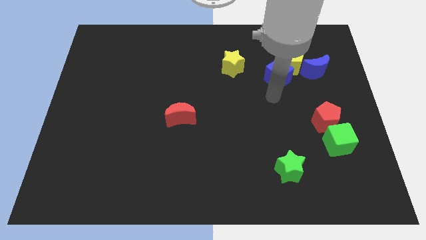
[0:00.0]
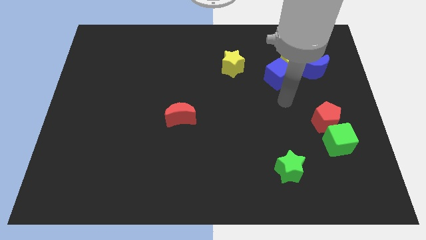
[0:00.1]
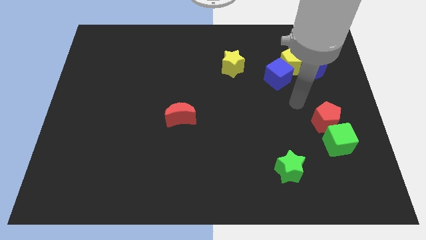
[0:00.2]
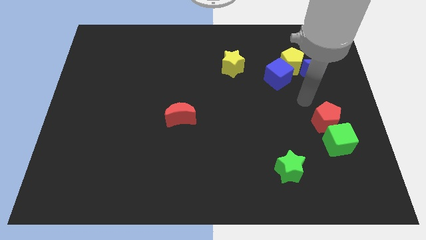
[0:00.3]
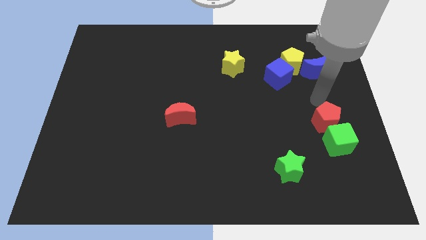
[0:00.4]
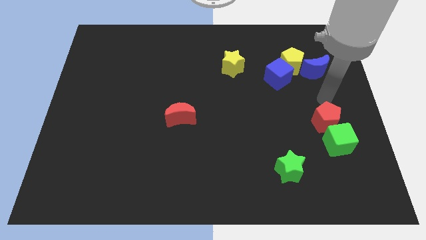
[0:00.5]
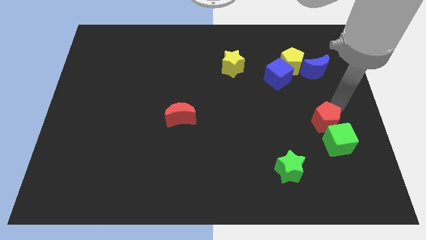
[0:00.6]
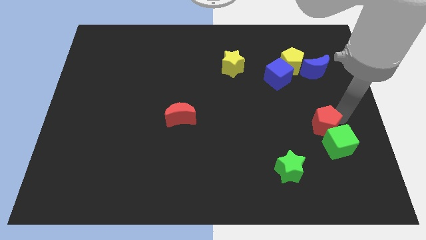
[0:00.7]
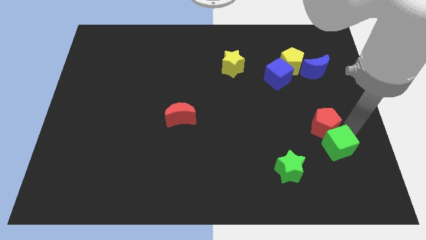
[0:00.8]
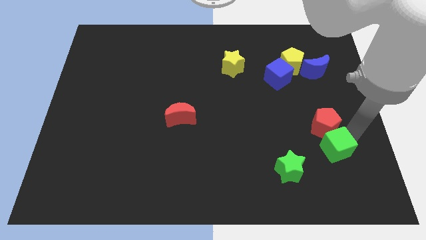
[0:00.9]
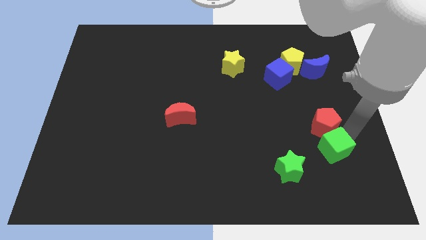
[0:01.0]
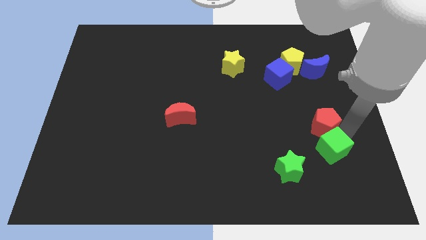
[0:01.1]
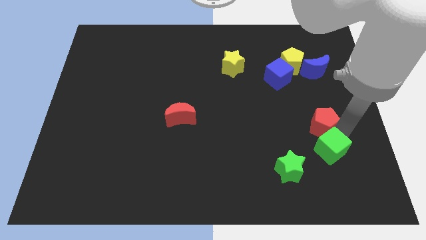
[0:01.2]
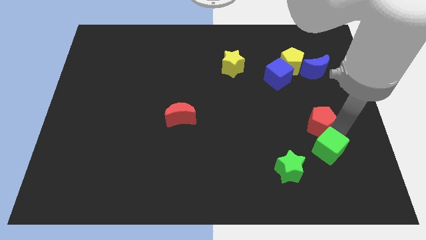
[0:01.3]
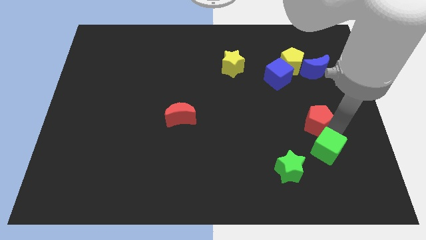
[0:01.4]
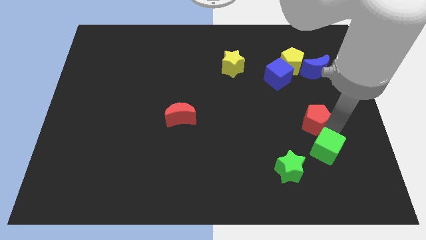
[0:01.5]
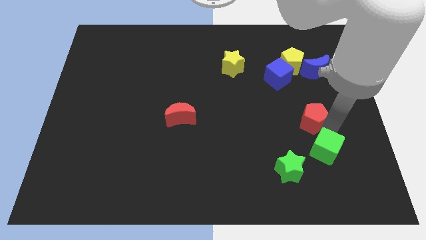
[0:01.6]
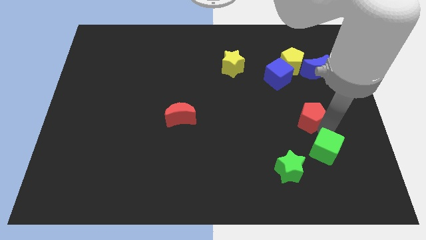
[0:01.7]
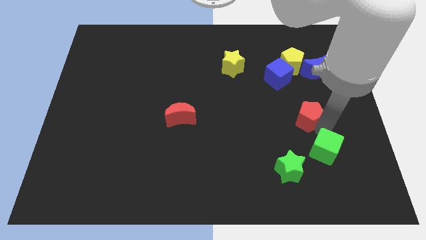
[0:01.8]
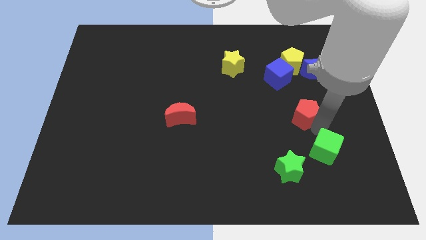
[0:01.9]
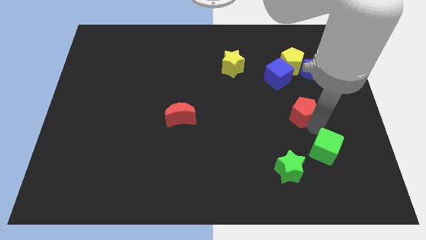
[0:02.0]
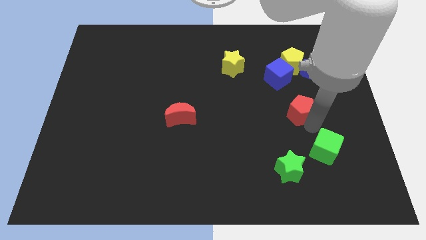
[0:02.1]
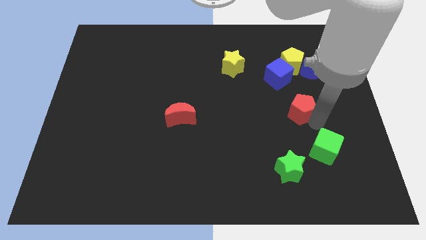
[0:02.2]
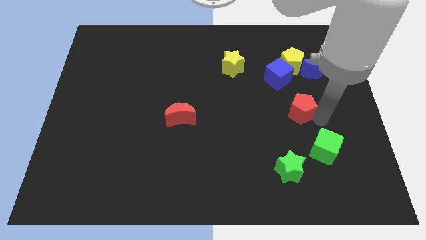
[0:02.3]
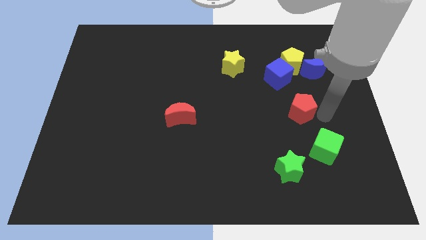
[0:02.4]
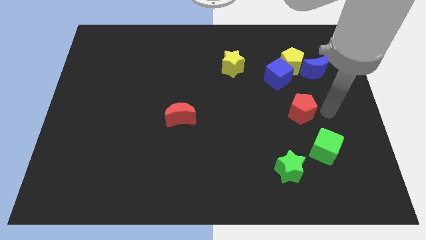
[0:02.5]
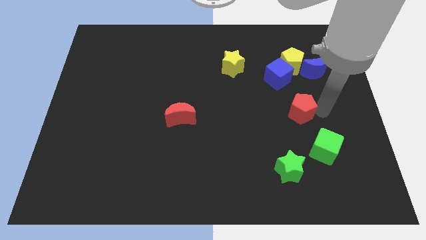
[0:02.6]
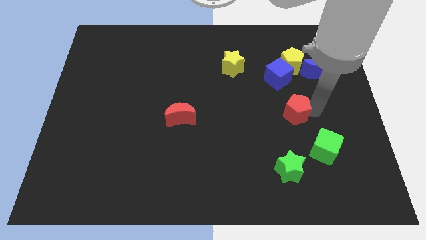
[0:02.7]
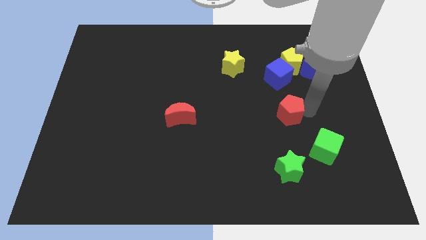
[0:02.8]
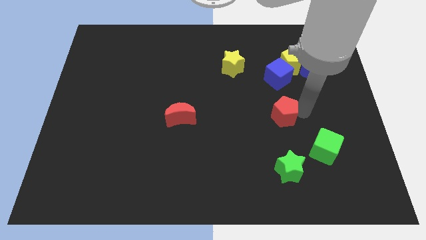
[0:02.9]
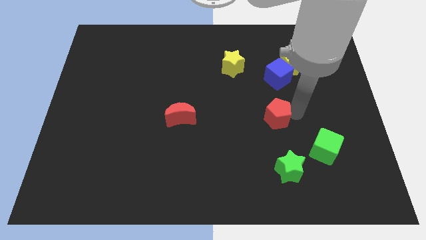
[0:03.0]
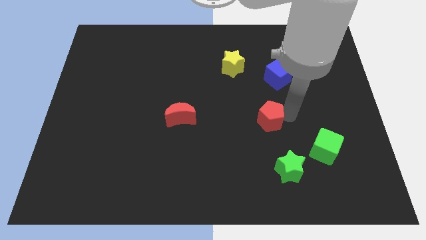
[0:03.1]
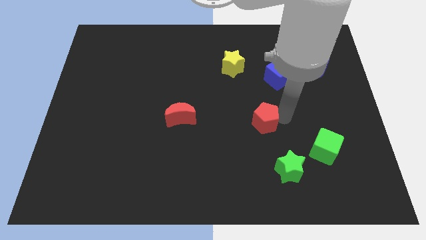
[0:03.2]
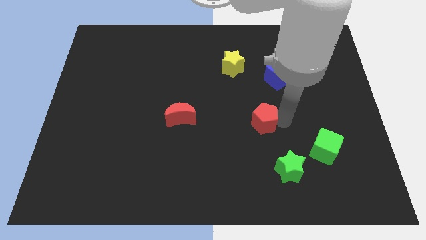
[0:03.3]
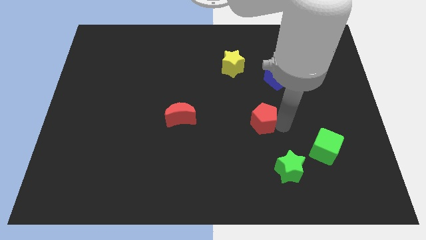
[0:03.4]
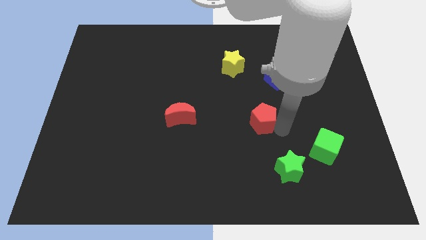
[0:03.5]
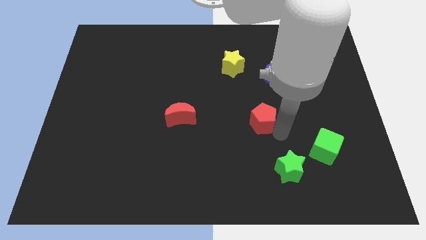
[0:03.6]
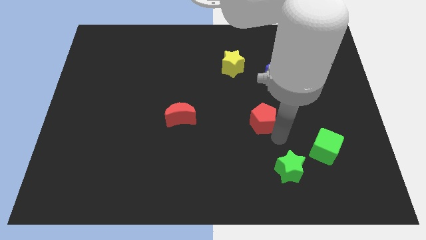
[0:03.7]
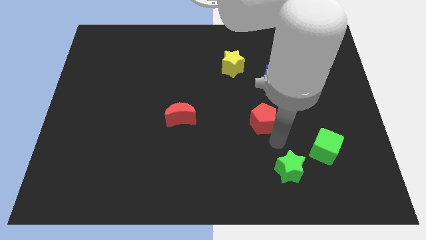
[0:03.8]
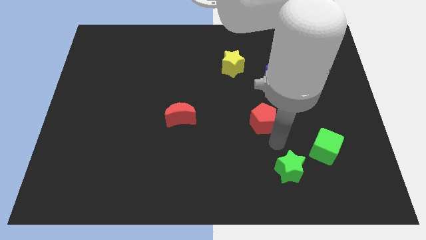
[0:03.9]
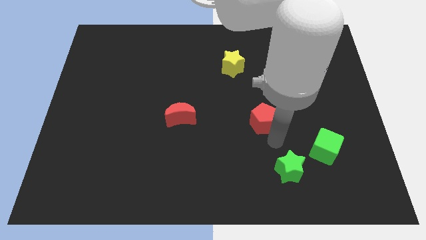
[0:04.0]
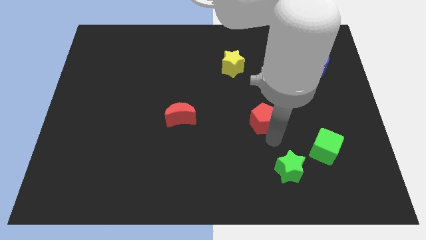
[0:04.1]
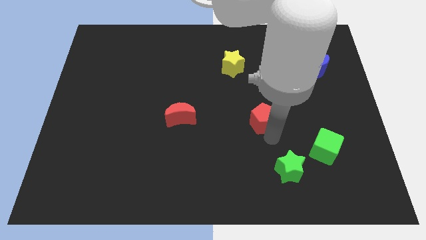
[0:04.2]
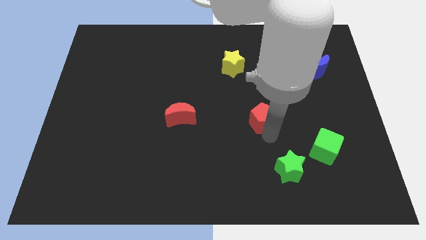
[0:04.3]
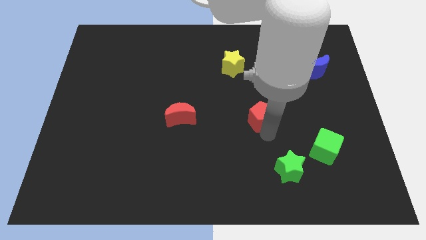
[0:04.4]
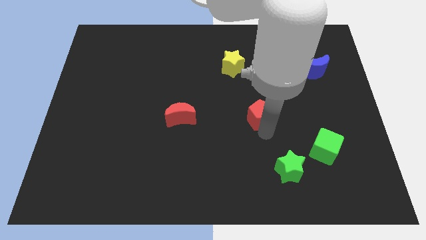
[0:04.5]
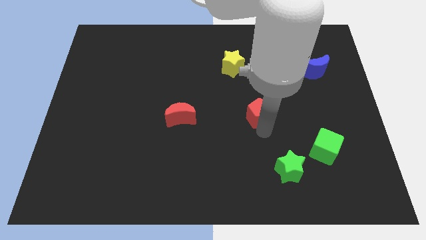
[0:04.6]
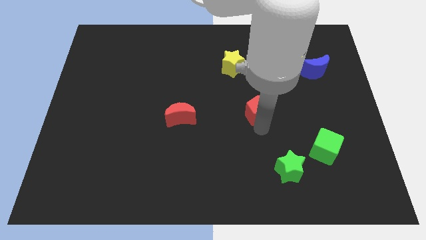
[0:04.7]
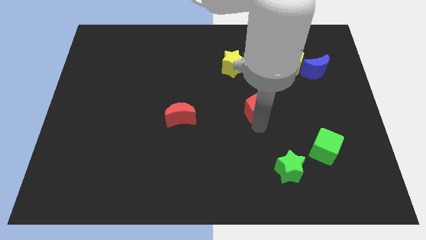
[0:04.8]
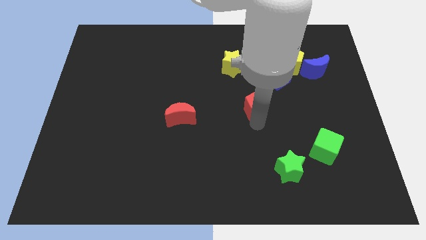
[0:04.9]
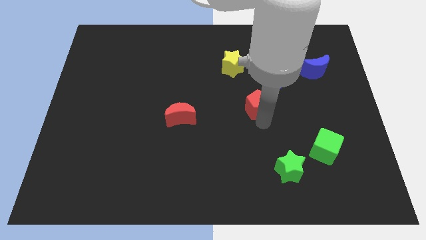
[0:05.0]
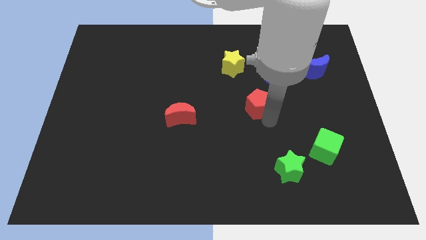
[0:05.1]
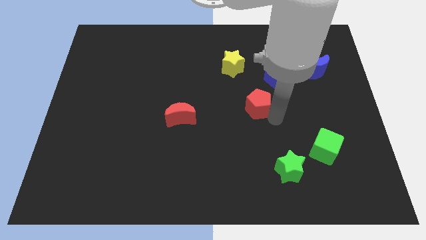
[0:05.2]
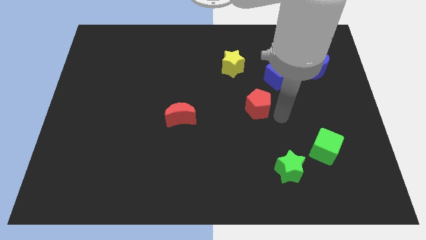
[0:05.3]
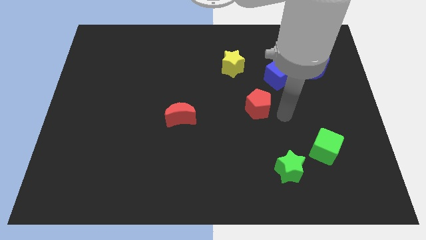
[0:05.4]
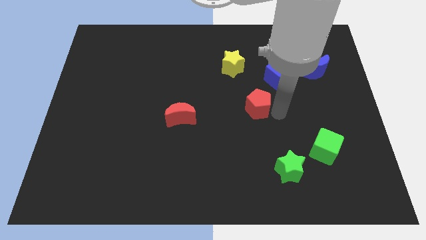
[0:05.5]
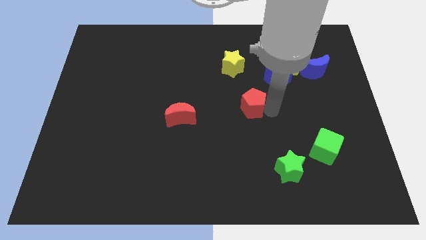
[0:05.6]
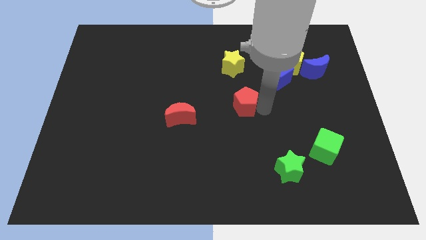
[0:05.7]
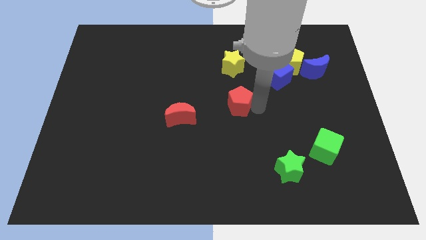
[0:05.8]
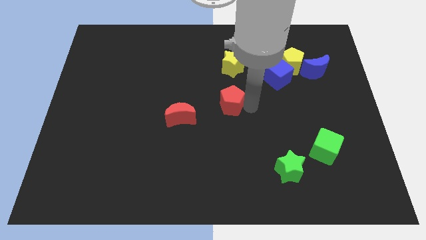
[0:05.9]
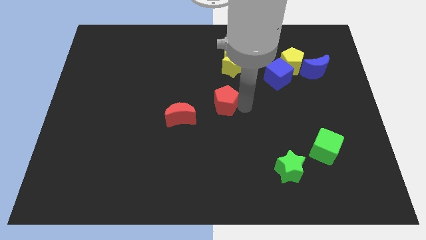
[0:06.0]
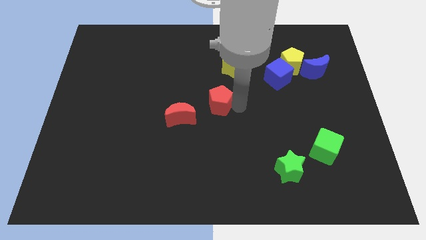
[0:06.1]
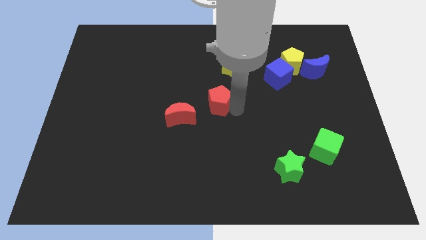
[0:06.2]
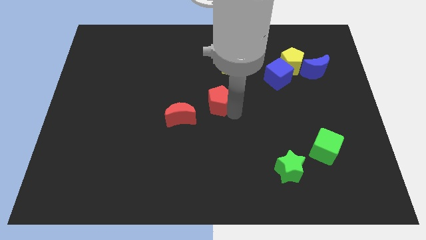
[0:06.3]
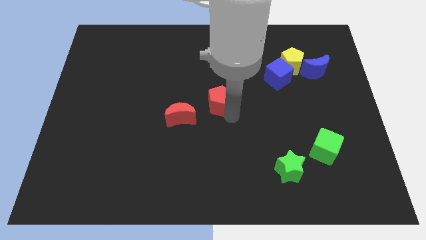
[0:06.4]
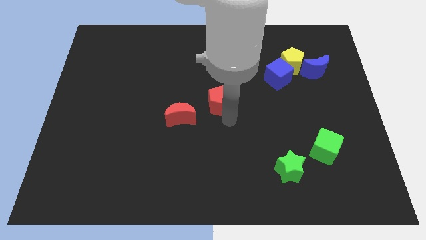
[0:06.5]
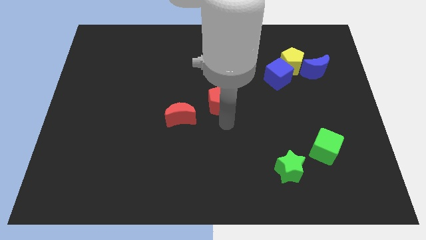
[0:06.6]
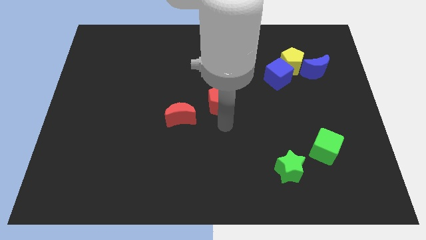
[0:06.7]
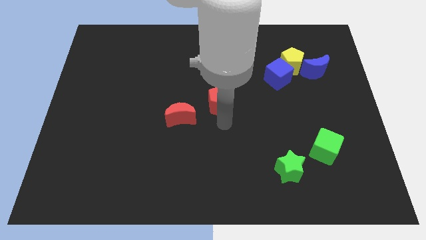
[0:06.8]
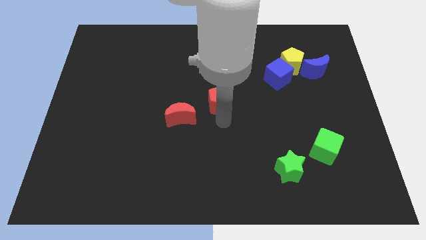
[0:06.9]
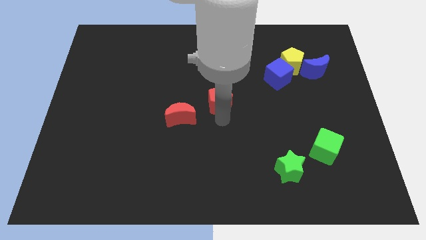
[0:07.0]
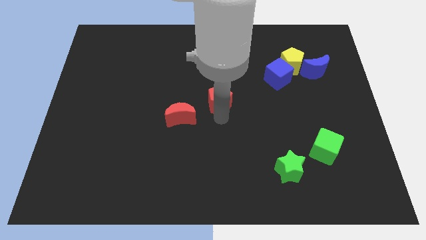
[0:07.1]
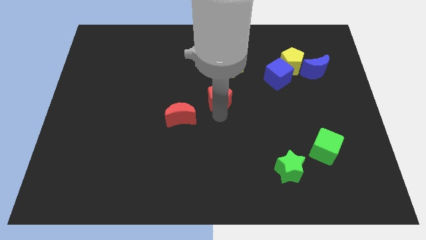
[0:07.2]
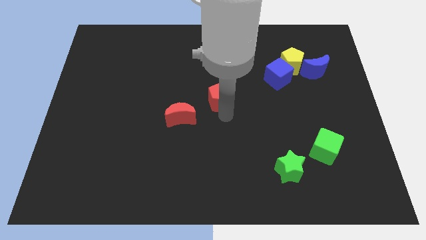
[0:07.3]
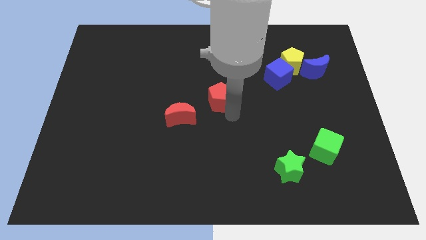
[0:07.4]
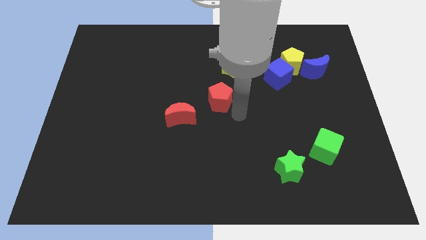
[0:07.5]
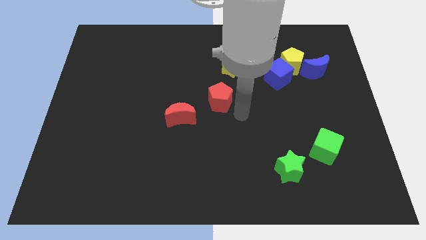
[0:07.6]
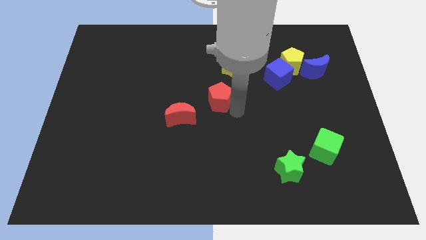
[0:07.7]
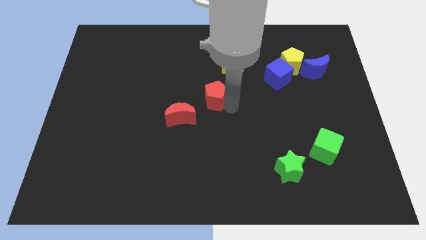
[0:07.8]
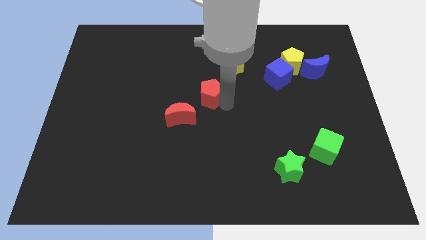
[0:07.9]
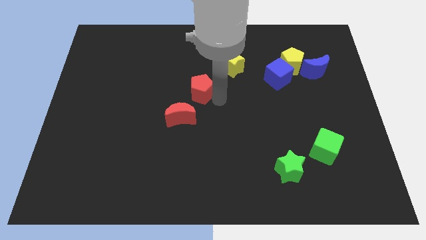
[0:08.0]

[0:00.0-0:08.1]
put the red pentagon to the top side of the red moon
